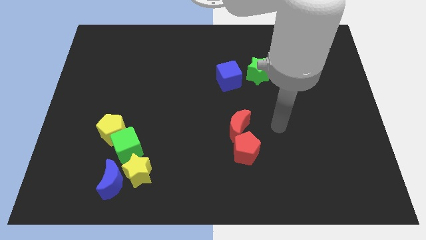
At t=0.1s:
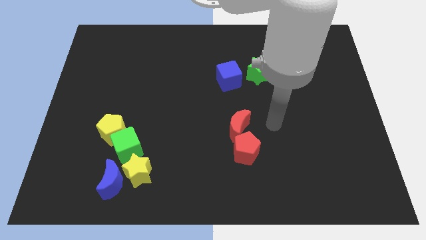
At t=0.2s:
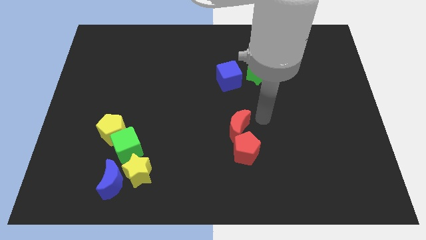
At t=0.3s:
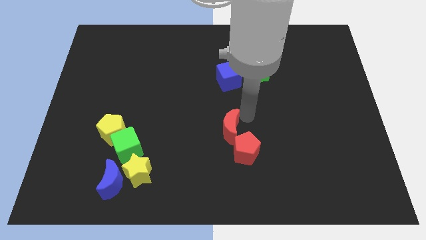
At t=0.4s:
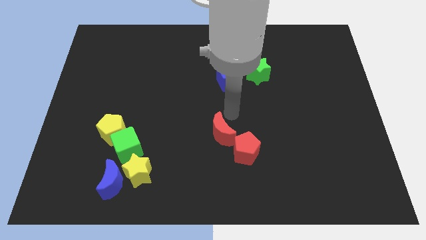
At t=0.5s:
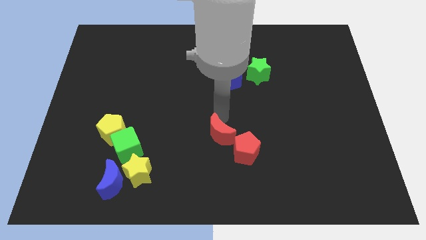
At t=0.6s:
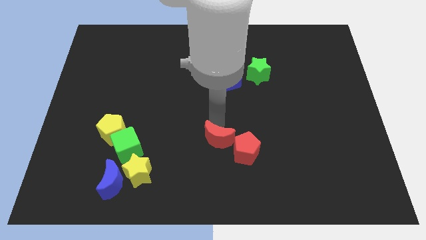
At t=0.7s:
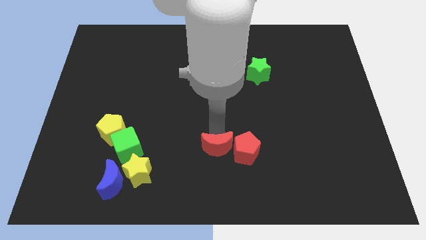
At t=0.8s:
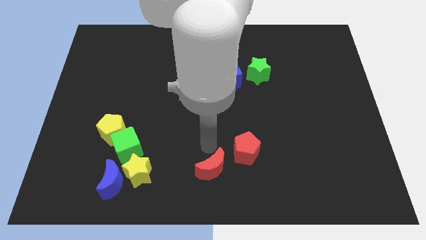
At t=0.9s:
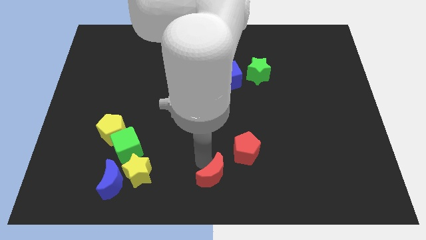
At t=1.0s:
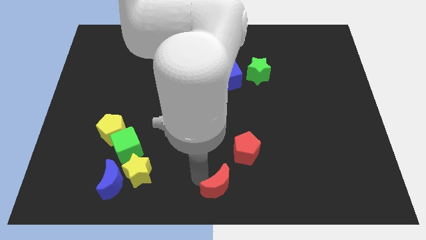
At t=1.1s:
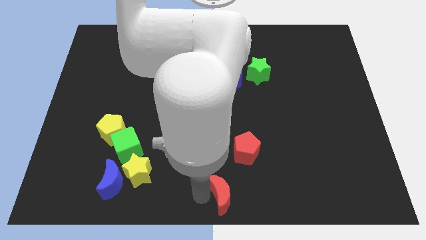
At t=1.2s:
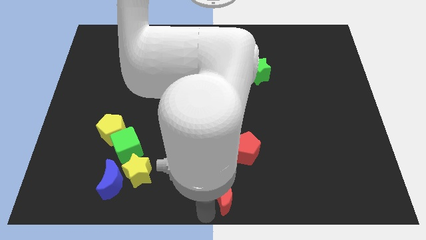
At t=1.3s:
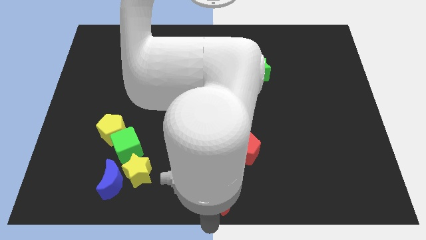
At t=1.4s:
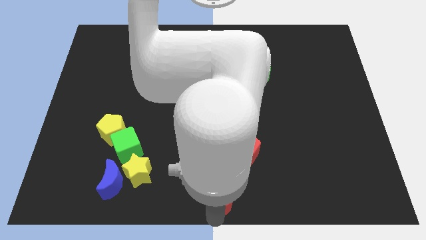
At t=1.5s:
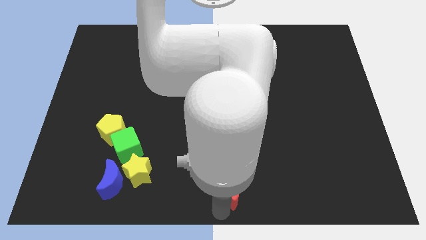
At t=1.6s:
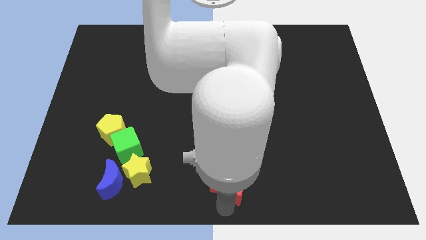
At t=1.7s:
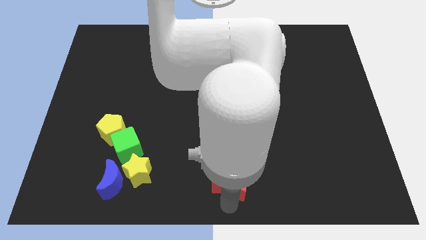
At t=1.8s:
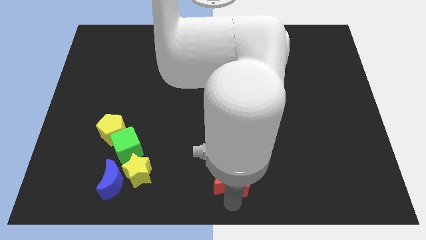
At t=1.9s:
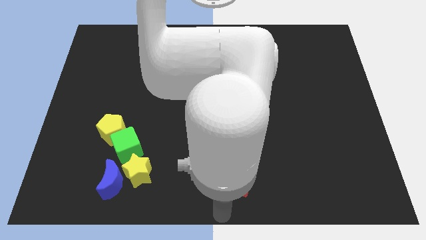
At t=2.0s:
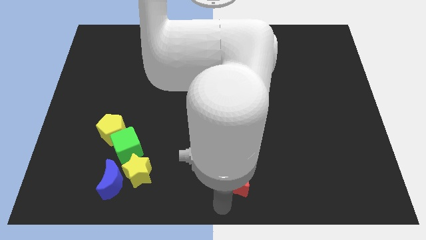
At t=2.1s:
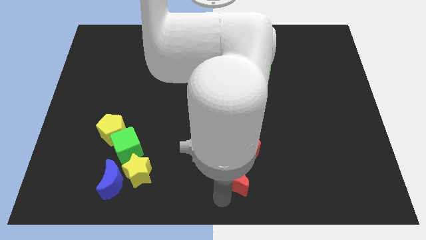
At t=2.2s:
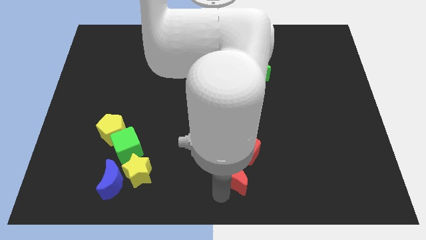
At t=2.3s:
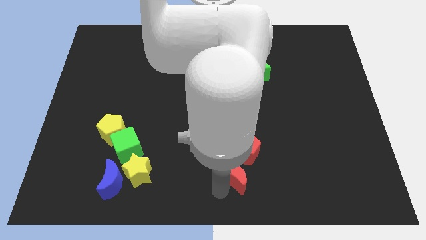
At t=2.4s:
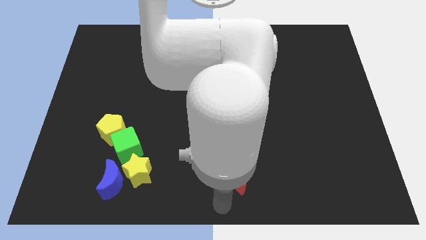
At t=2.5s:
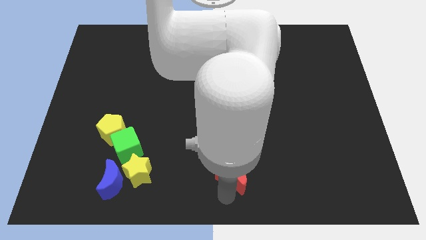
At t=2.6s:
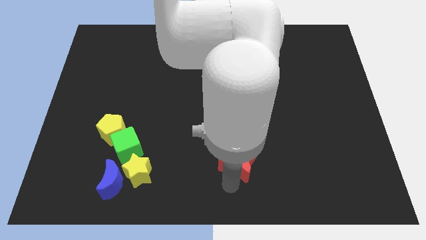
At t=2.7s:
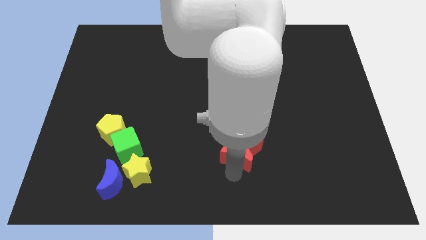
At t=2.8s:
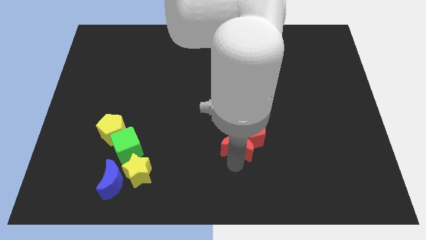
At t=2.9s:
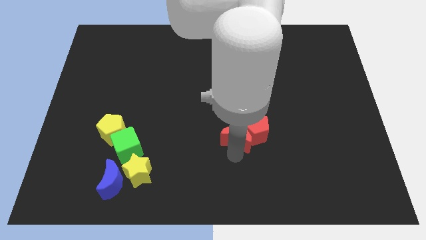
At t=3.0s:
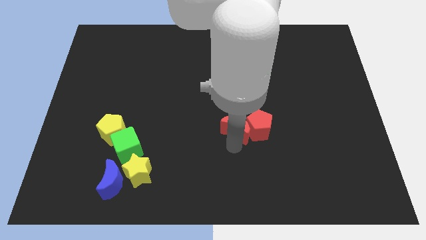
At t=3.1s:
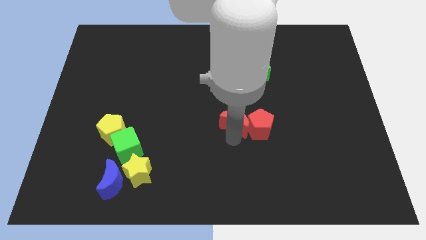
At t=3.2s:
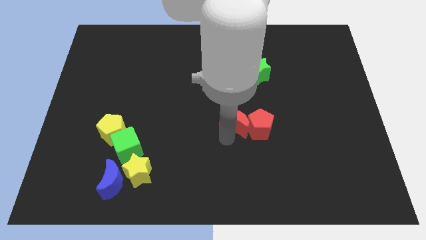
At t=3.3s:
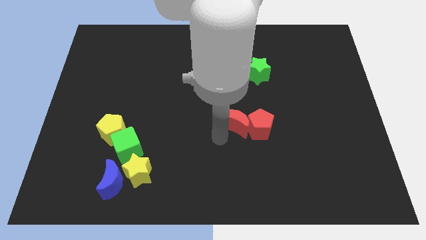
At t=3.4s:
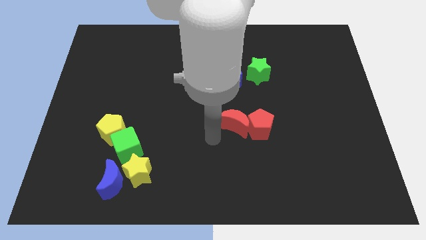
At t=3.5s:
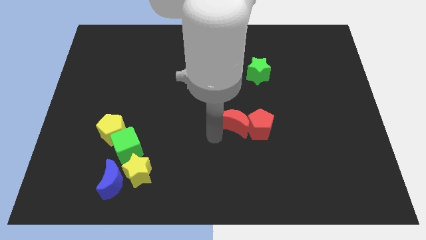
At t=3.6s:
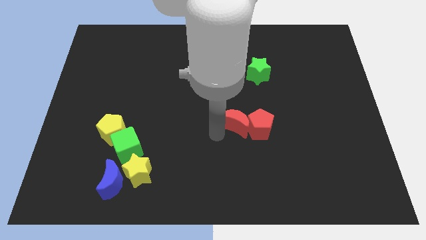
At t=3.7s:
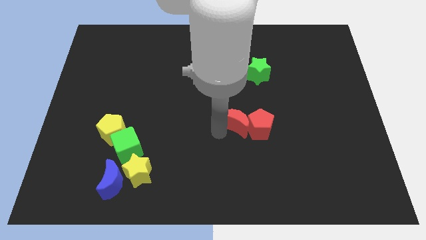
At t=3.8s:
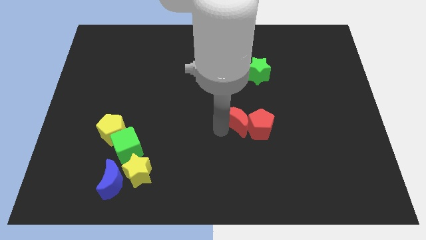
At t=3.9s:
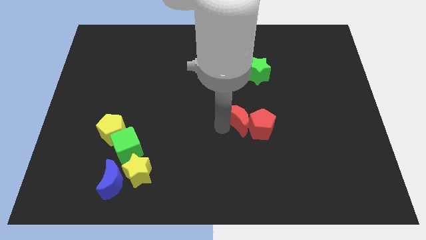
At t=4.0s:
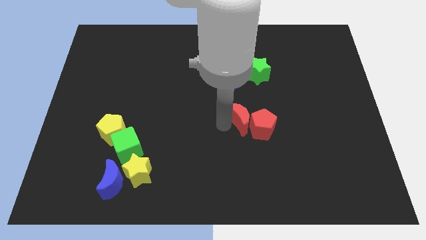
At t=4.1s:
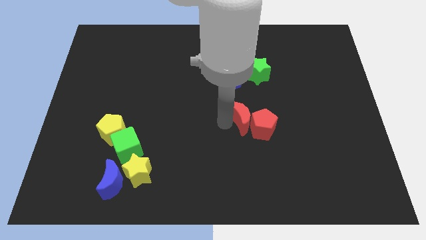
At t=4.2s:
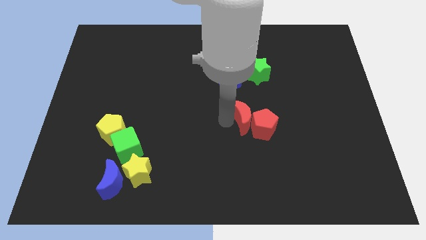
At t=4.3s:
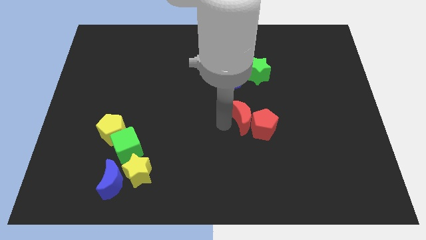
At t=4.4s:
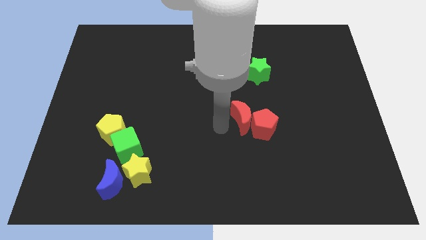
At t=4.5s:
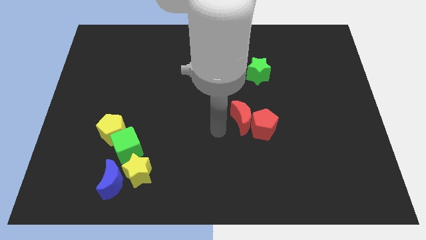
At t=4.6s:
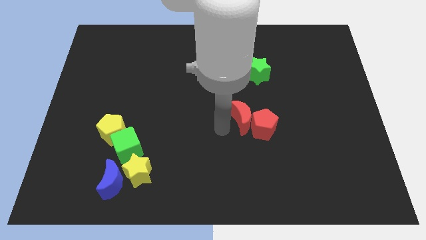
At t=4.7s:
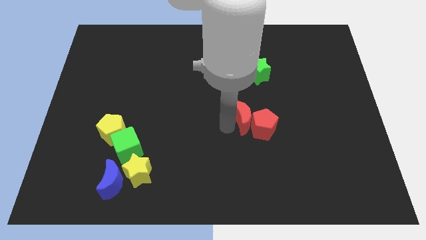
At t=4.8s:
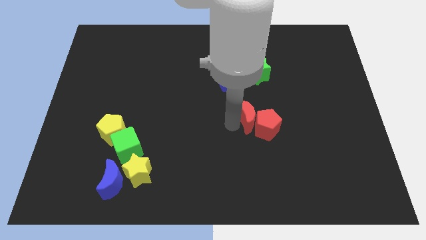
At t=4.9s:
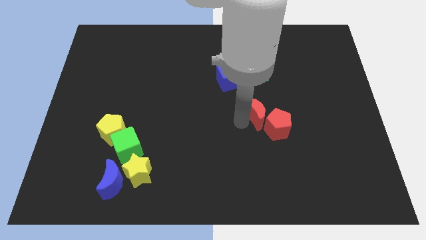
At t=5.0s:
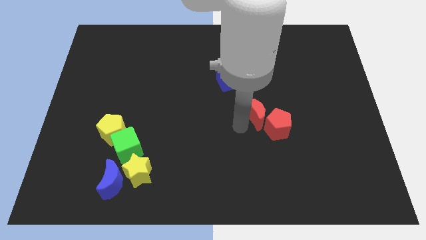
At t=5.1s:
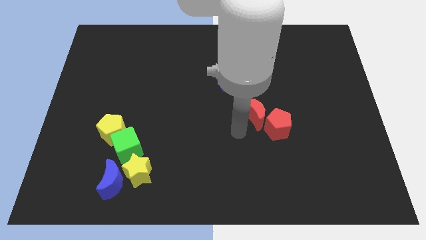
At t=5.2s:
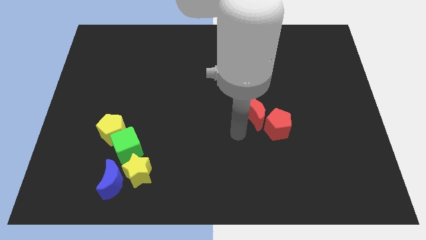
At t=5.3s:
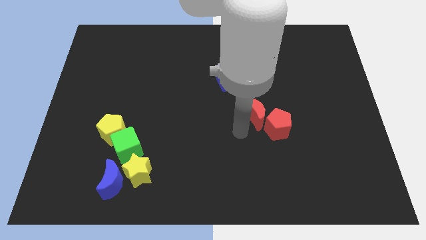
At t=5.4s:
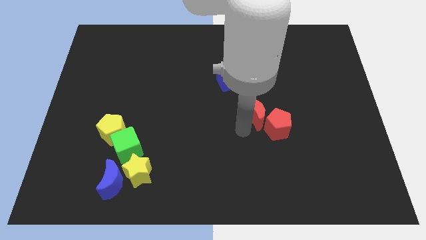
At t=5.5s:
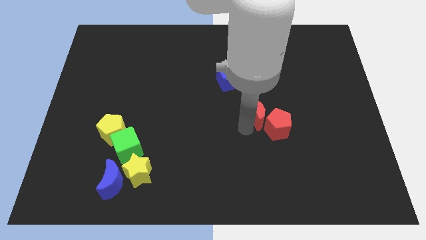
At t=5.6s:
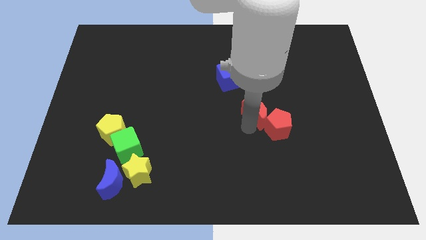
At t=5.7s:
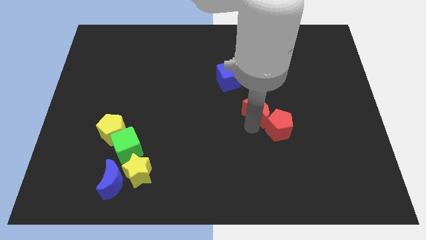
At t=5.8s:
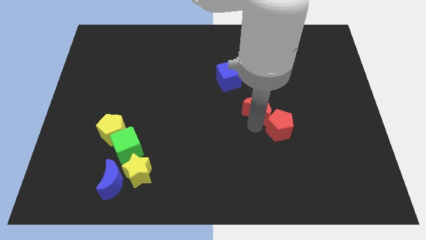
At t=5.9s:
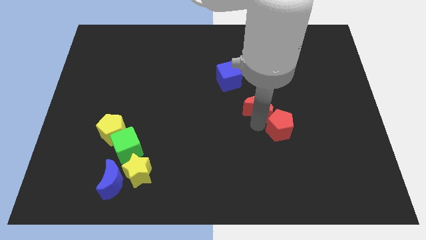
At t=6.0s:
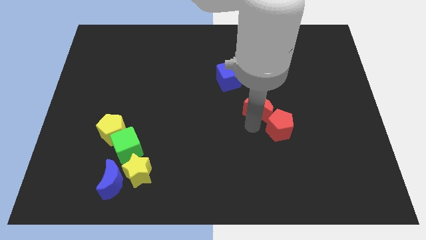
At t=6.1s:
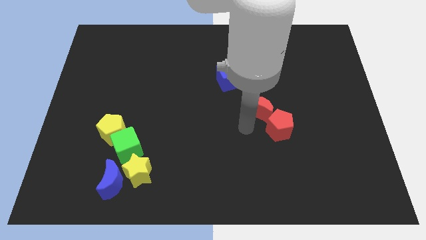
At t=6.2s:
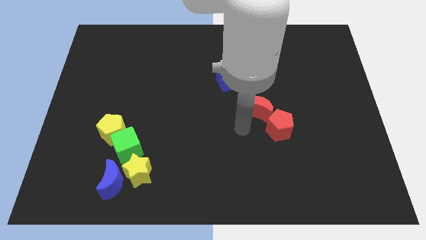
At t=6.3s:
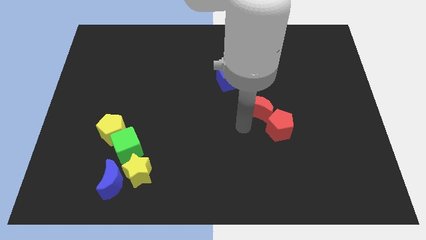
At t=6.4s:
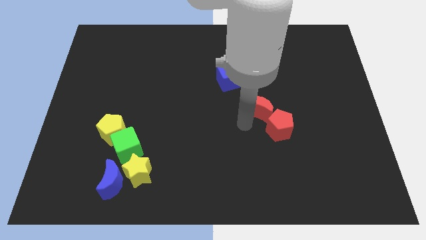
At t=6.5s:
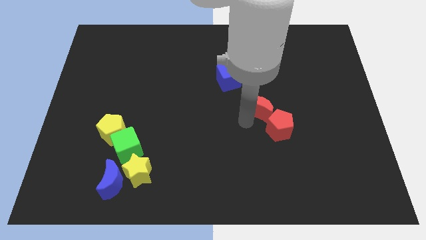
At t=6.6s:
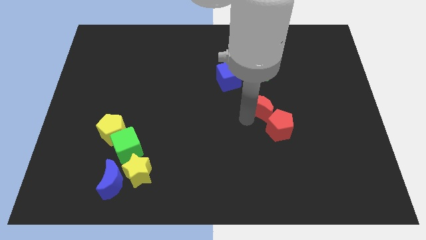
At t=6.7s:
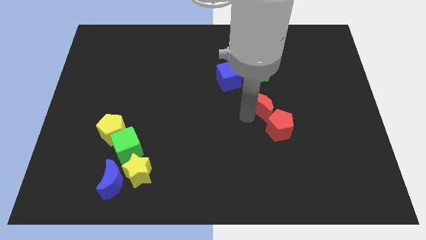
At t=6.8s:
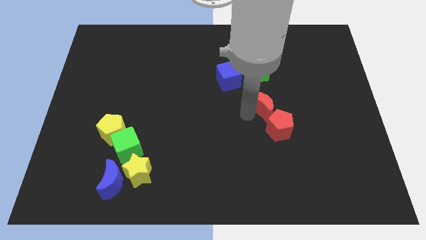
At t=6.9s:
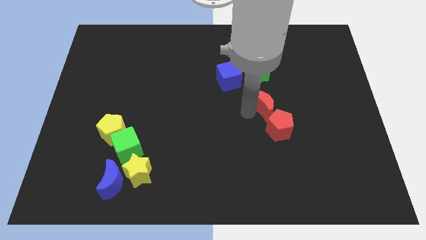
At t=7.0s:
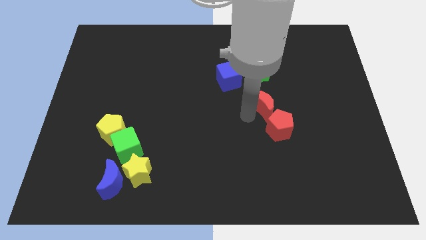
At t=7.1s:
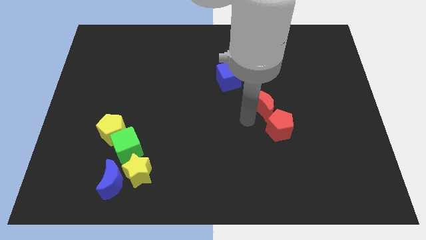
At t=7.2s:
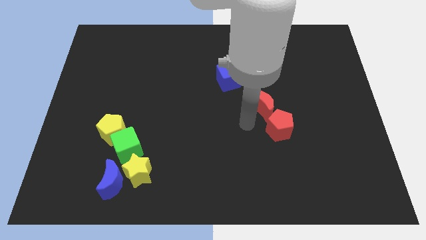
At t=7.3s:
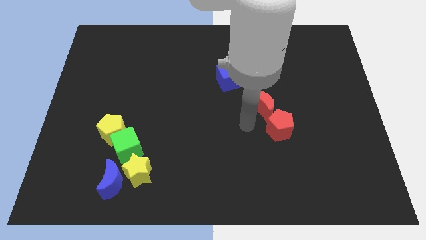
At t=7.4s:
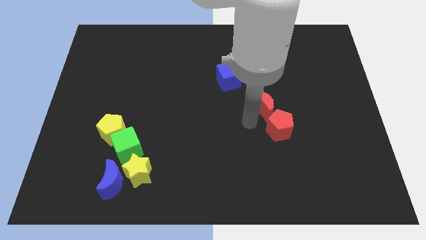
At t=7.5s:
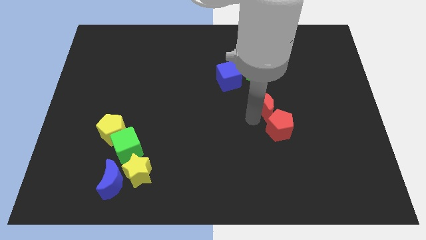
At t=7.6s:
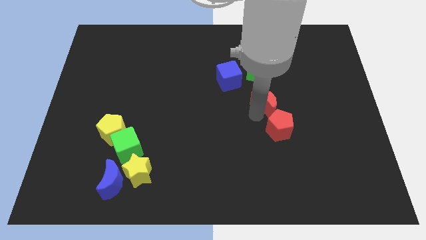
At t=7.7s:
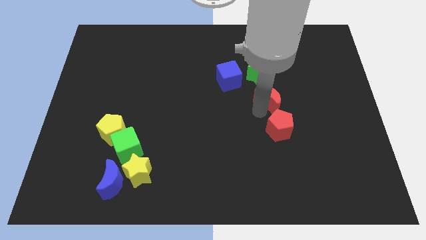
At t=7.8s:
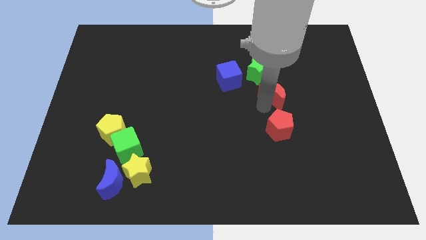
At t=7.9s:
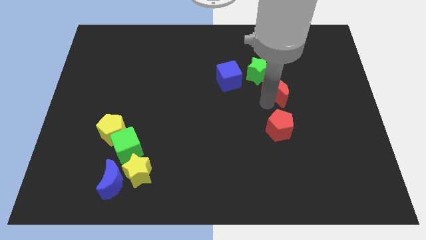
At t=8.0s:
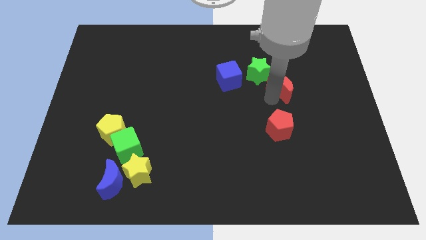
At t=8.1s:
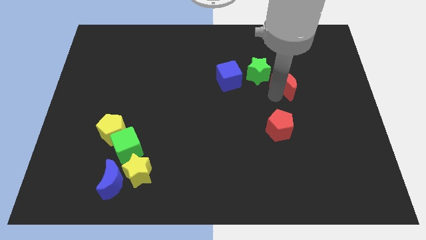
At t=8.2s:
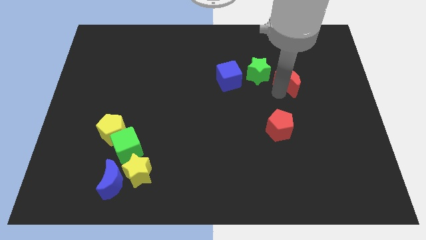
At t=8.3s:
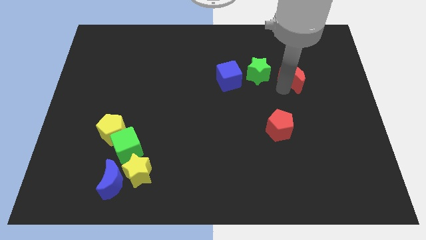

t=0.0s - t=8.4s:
push the red moon upwards and then to the right
